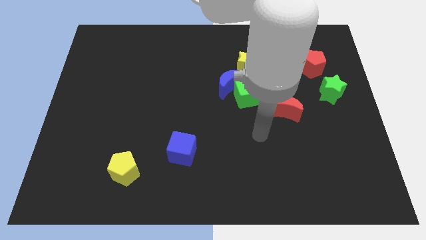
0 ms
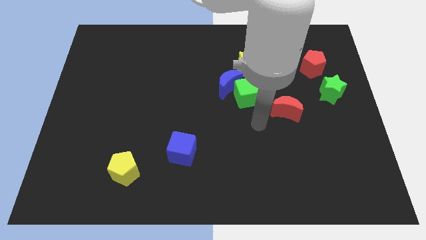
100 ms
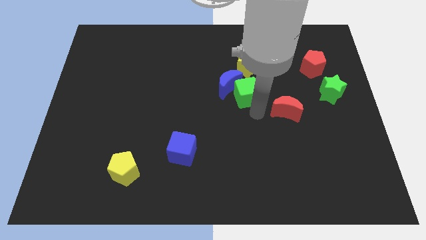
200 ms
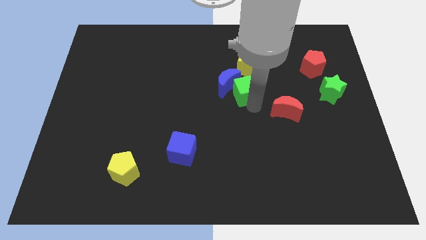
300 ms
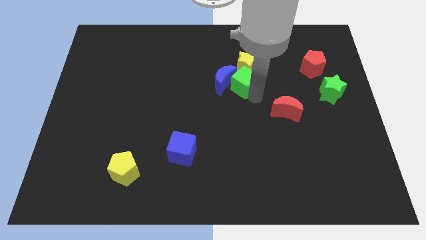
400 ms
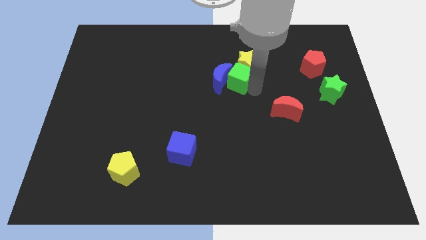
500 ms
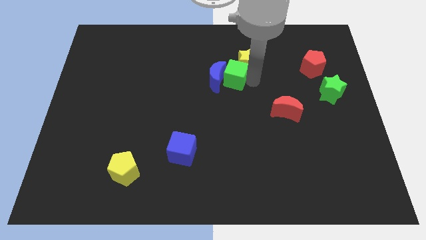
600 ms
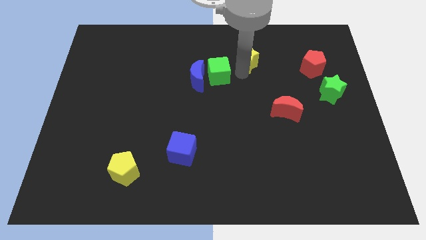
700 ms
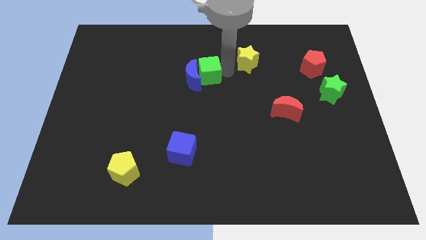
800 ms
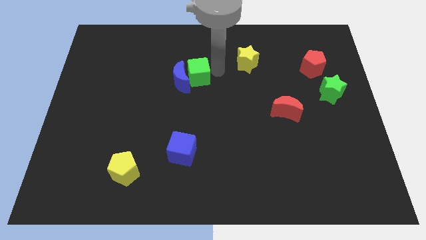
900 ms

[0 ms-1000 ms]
move the blue moon away from the green cube and yellow star

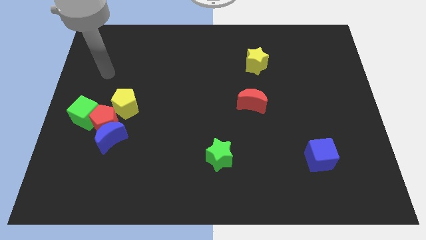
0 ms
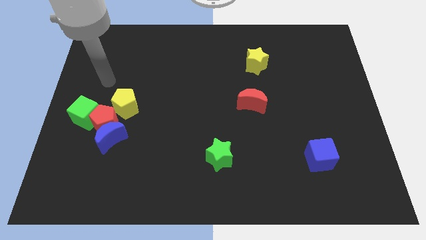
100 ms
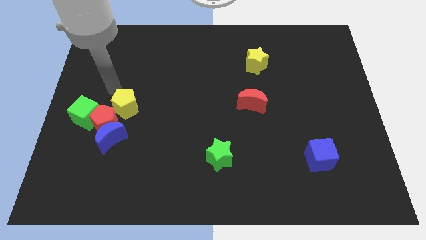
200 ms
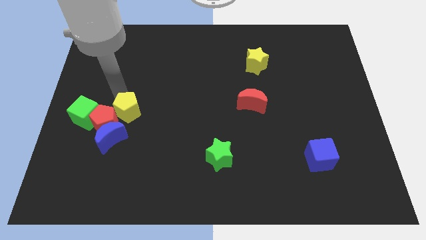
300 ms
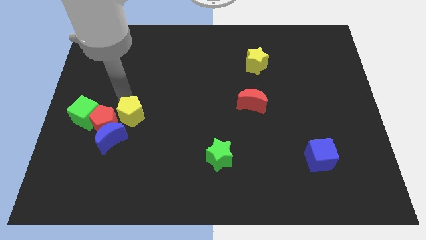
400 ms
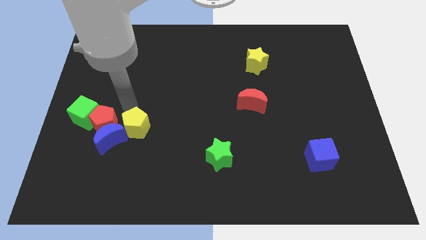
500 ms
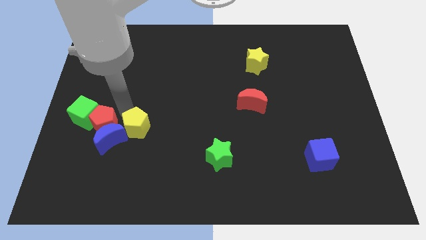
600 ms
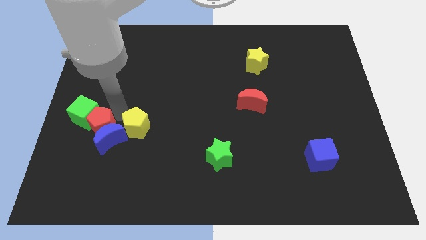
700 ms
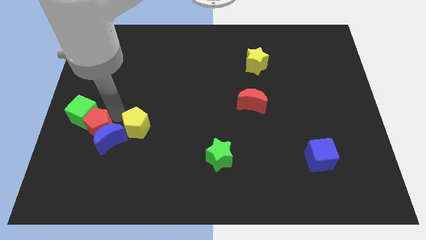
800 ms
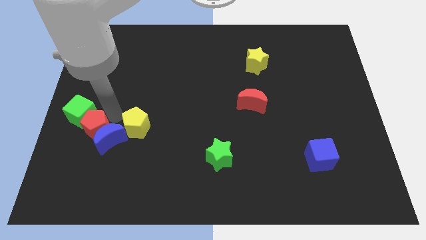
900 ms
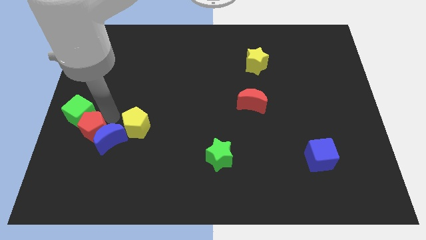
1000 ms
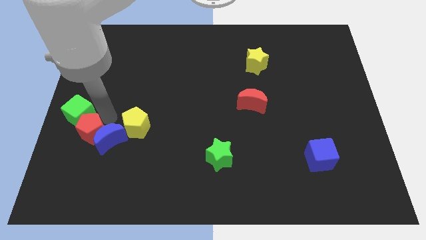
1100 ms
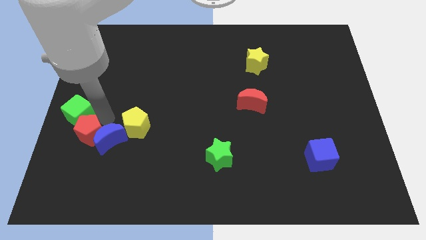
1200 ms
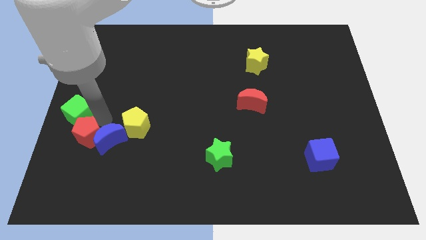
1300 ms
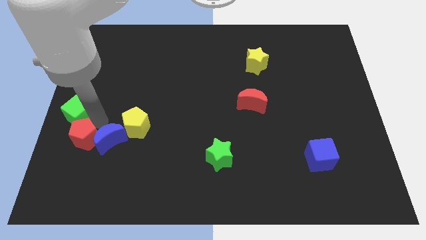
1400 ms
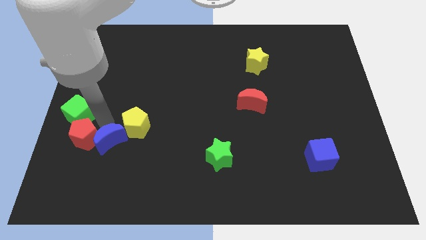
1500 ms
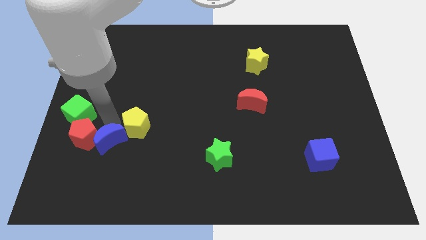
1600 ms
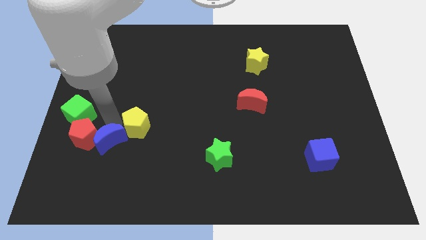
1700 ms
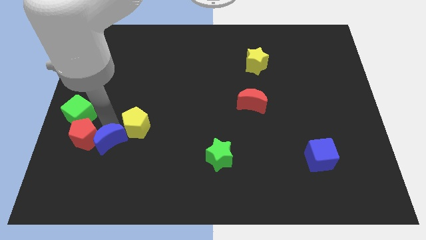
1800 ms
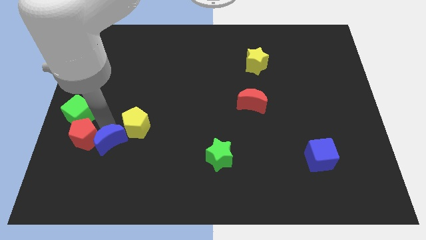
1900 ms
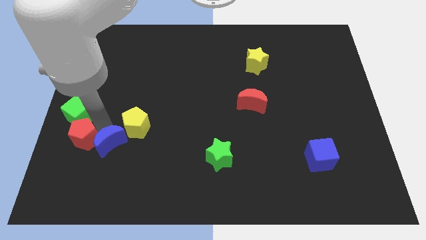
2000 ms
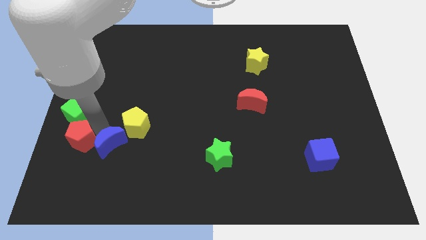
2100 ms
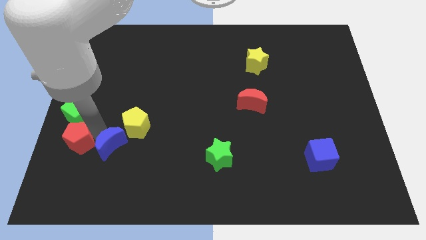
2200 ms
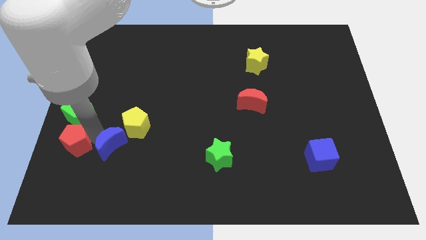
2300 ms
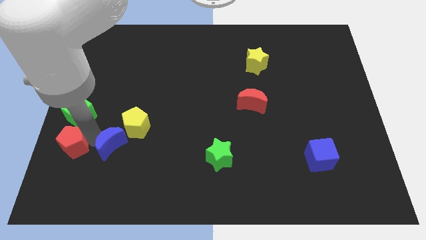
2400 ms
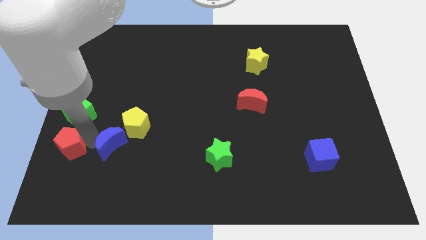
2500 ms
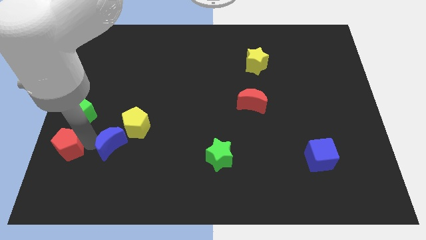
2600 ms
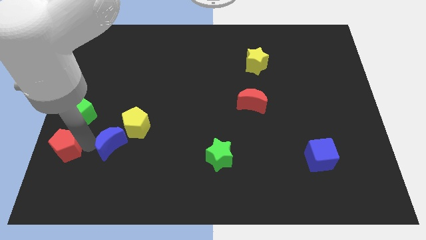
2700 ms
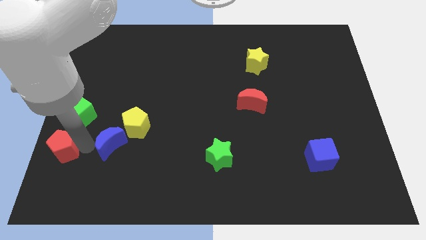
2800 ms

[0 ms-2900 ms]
separate the red pentagon from the clump

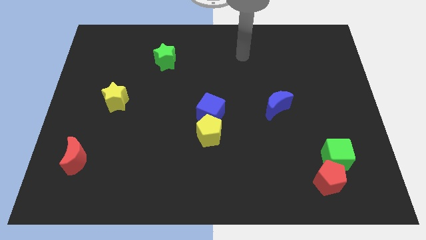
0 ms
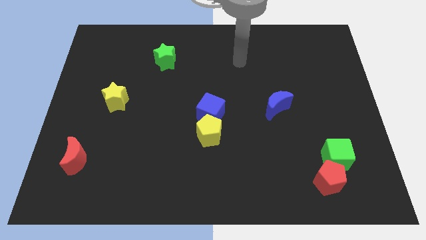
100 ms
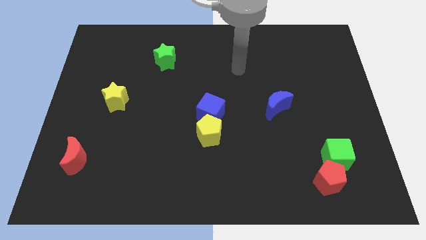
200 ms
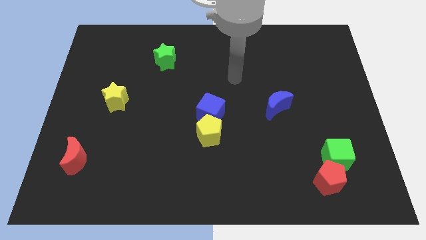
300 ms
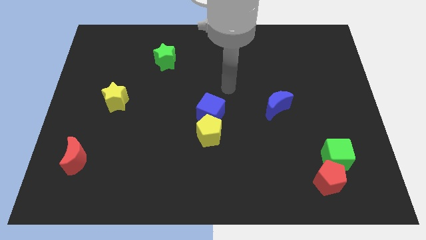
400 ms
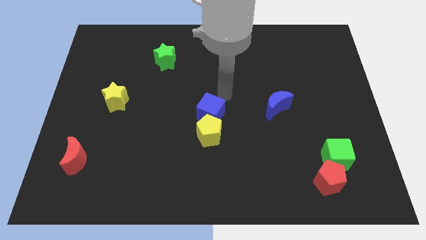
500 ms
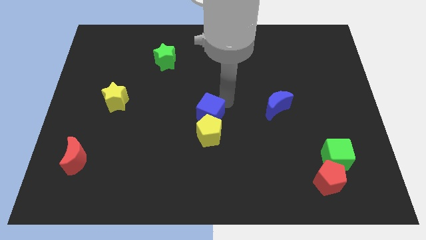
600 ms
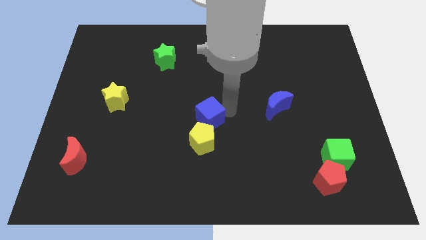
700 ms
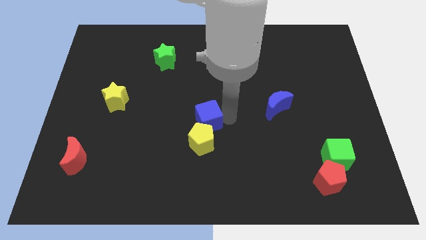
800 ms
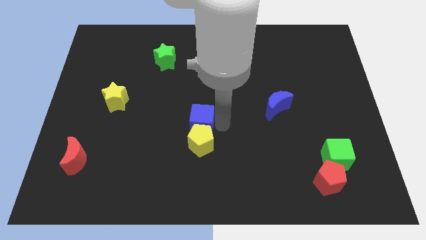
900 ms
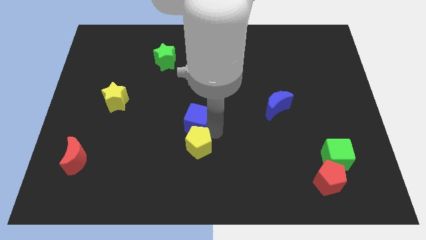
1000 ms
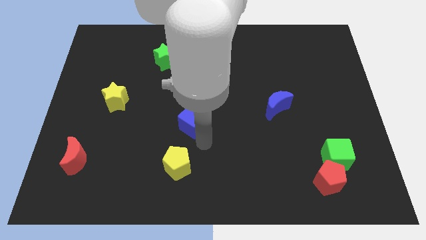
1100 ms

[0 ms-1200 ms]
move the blue cube away from the yellow pentagon

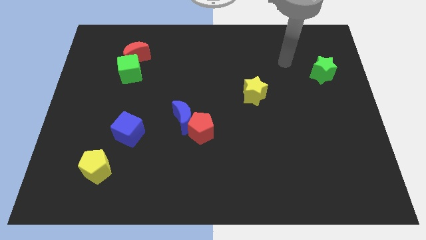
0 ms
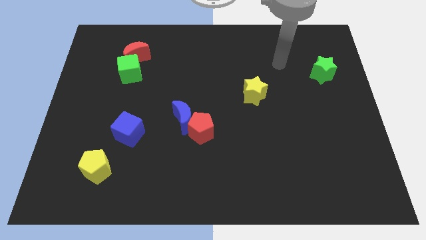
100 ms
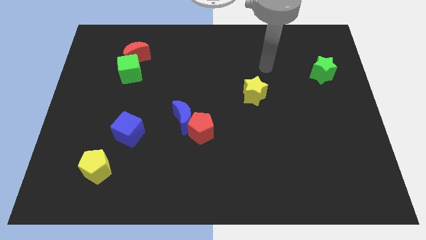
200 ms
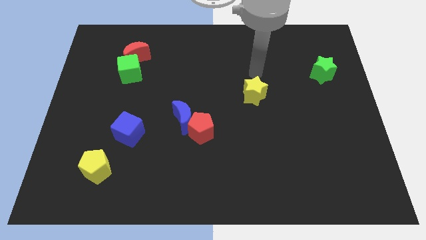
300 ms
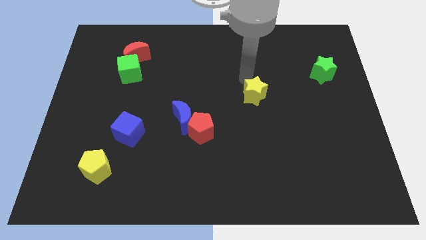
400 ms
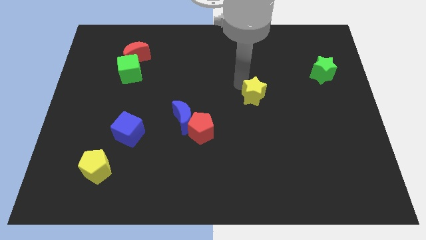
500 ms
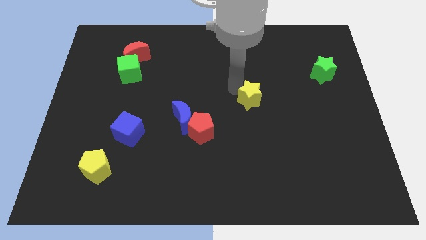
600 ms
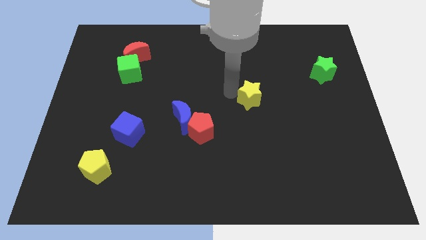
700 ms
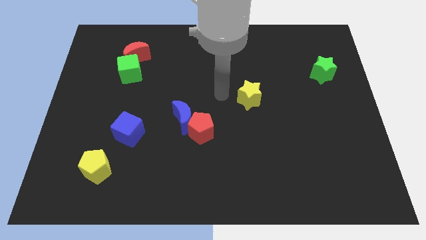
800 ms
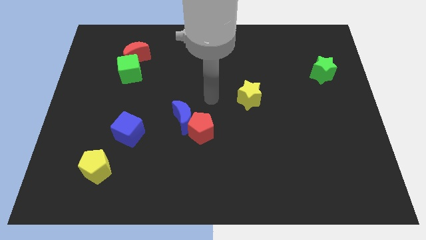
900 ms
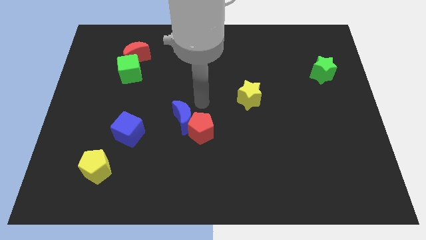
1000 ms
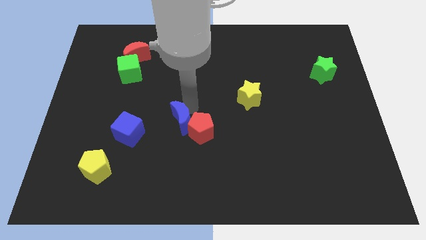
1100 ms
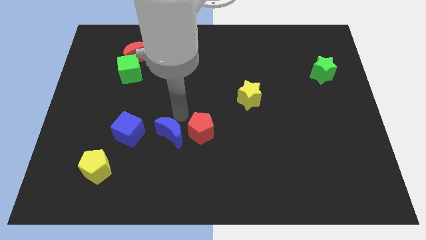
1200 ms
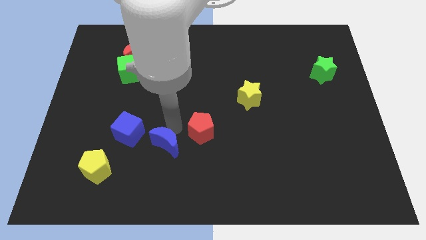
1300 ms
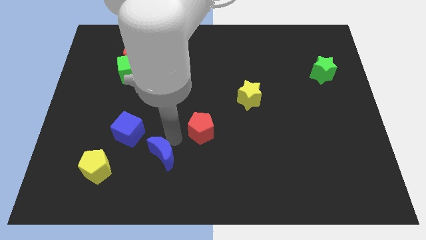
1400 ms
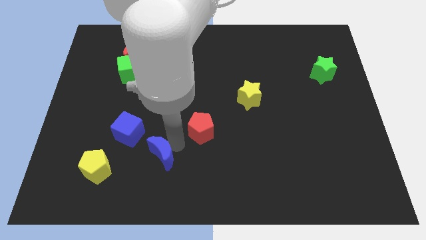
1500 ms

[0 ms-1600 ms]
pull the red pentagon apart from the blue moon

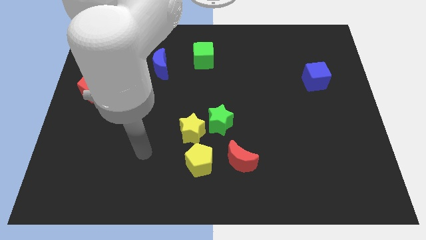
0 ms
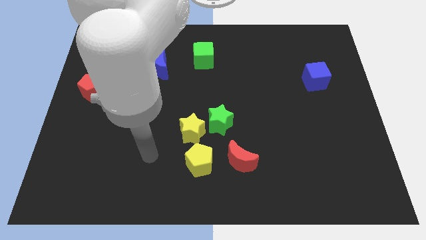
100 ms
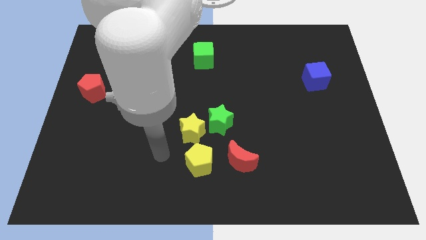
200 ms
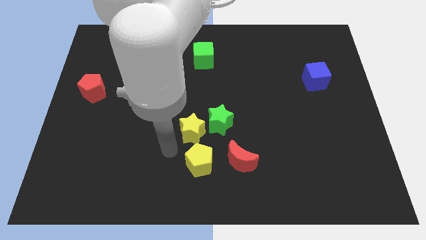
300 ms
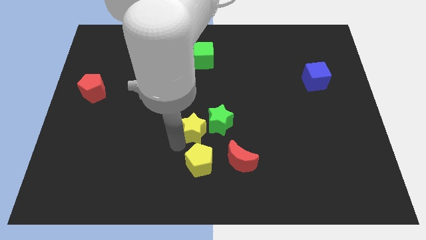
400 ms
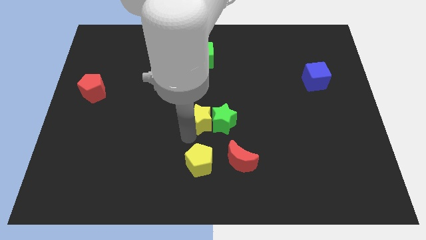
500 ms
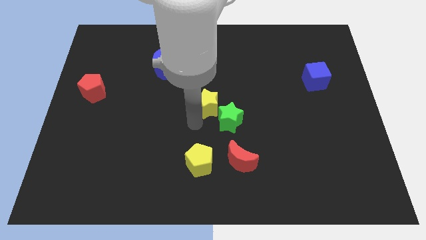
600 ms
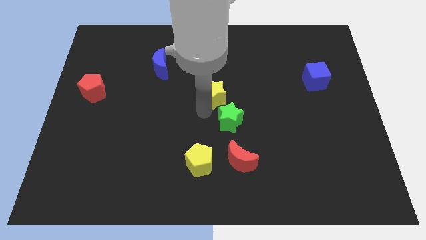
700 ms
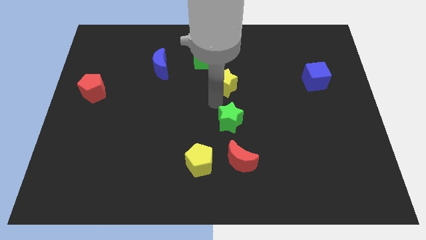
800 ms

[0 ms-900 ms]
pull the green star apart from the yellow star

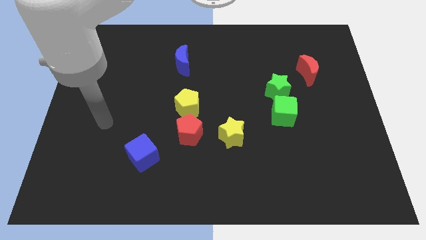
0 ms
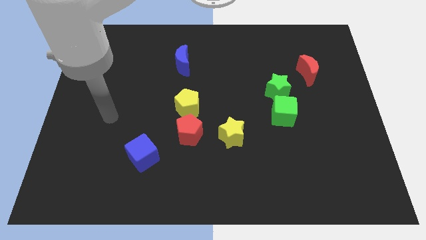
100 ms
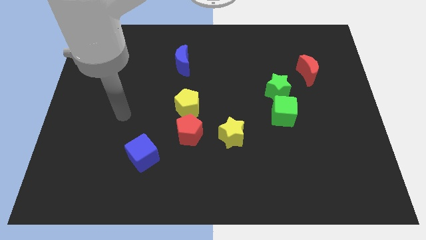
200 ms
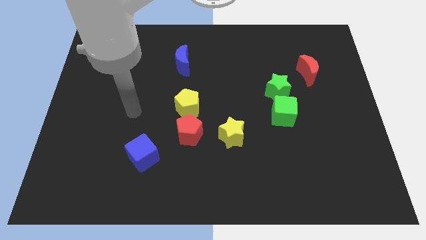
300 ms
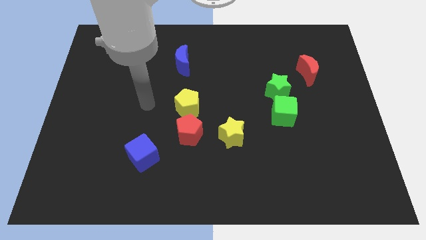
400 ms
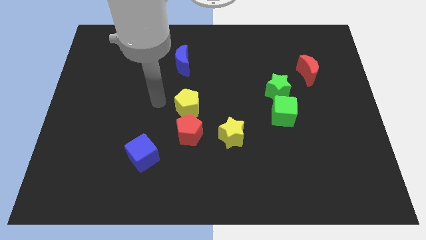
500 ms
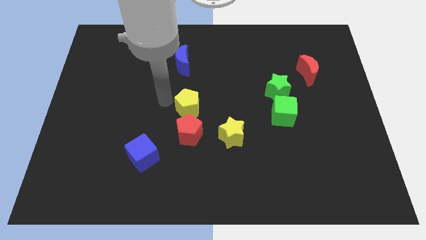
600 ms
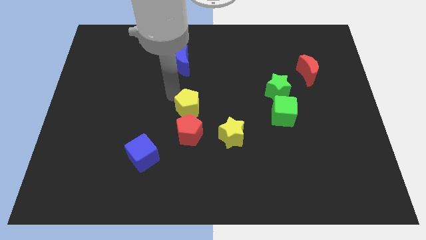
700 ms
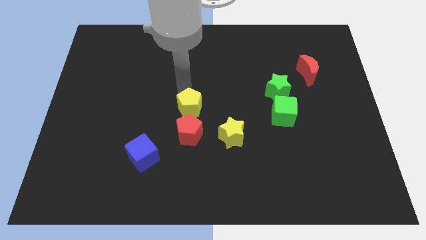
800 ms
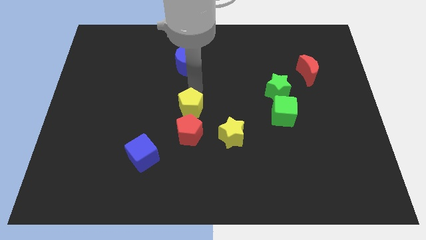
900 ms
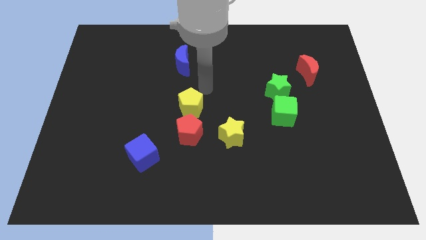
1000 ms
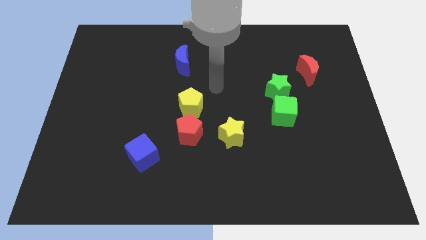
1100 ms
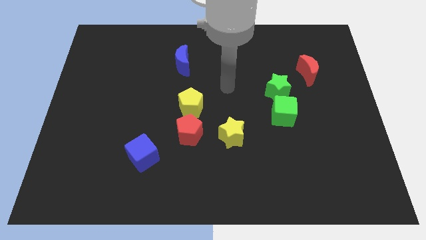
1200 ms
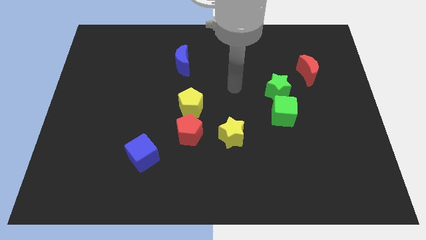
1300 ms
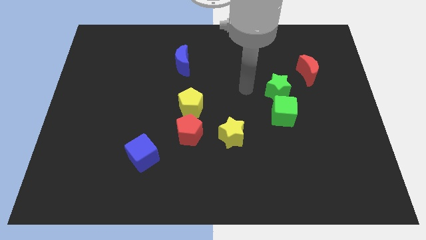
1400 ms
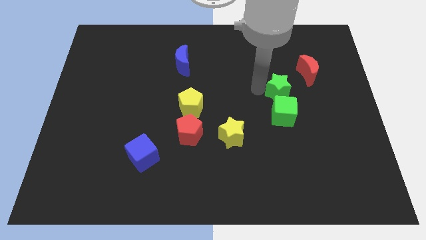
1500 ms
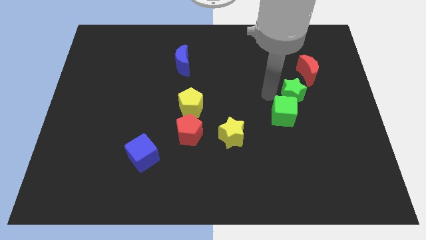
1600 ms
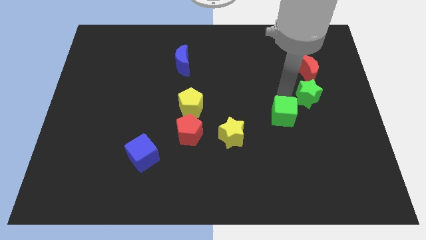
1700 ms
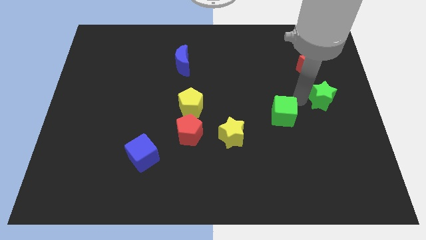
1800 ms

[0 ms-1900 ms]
move the green cube away from the green star
